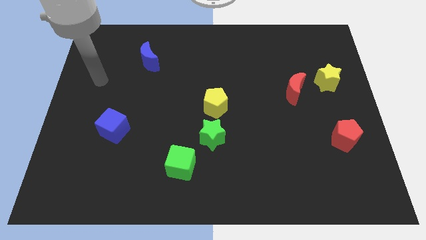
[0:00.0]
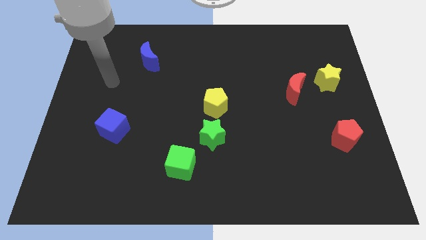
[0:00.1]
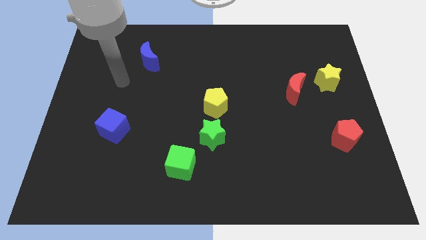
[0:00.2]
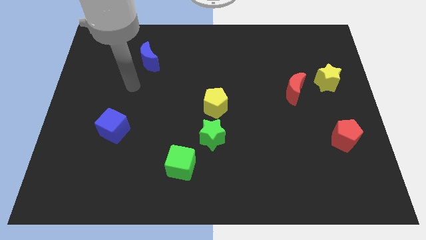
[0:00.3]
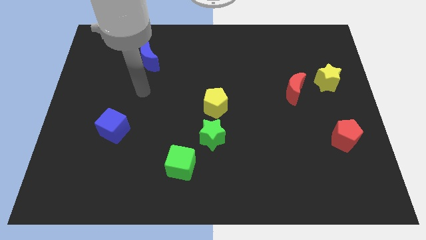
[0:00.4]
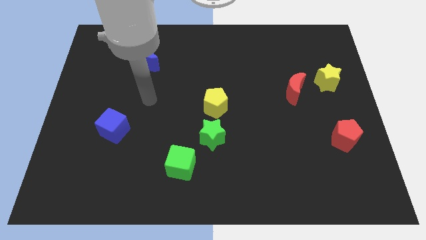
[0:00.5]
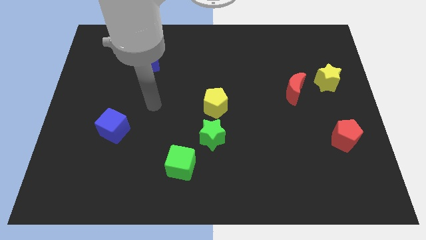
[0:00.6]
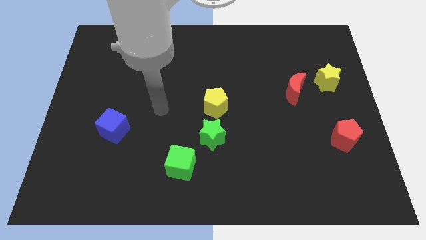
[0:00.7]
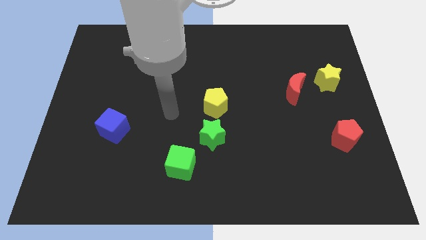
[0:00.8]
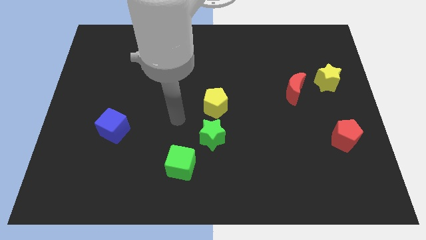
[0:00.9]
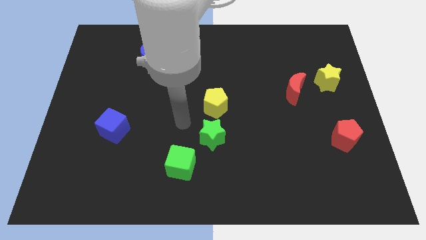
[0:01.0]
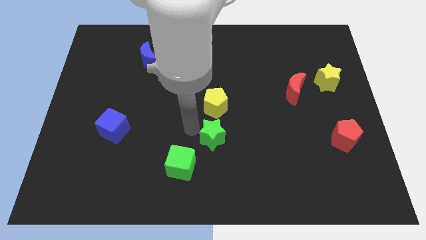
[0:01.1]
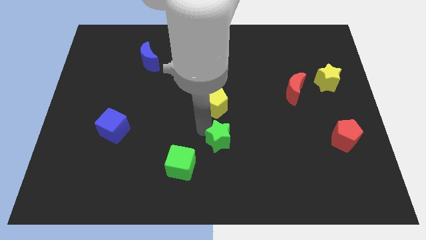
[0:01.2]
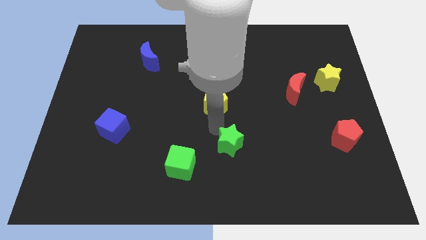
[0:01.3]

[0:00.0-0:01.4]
pull the yellow pentagon apart from the green star

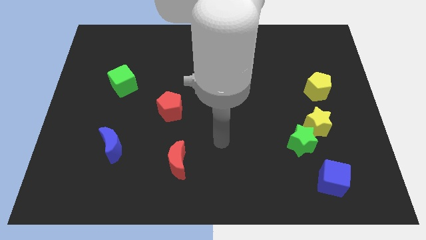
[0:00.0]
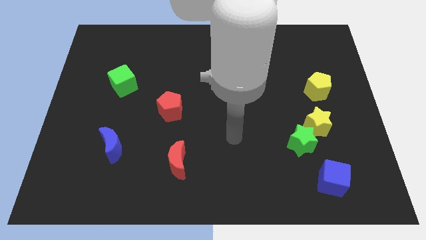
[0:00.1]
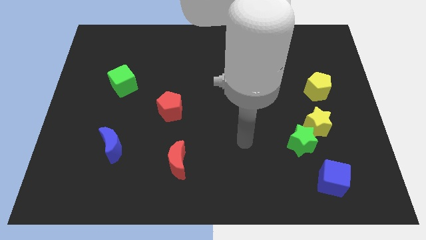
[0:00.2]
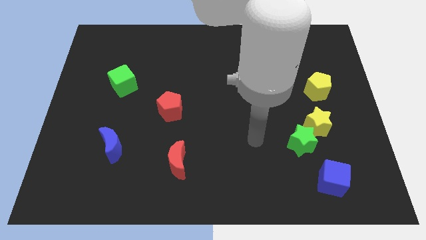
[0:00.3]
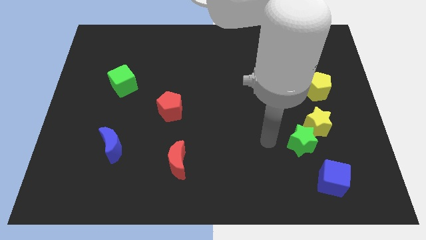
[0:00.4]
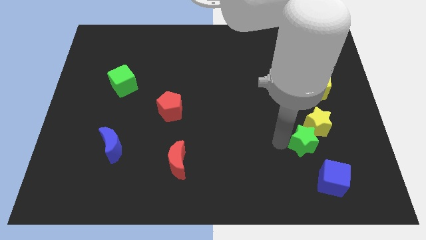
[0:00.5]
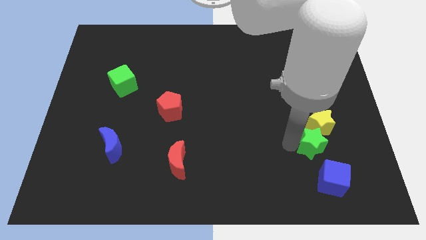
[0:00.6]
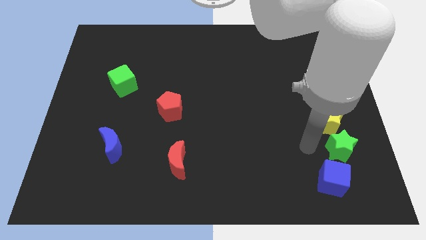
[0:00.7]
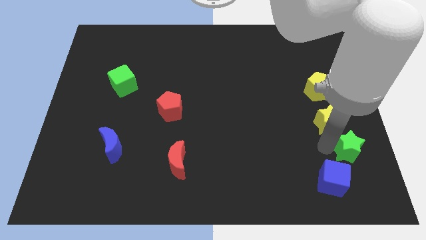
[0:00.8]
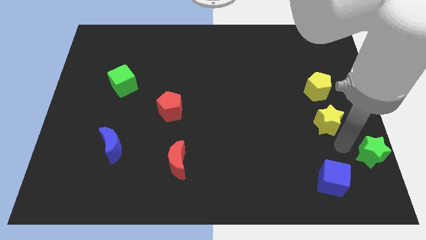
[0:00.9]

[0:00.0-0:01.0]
pull the yellow star apart from the green star

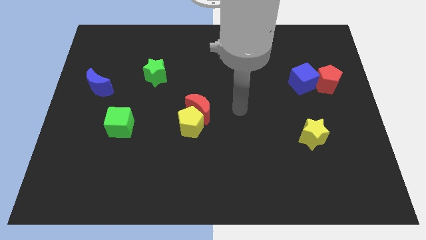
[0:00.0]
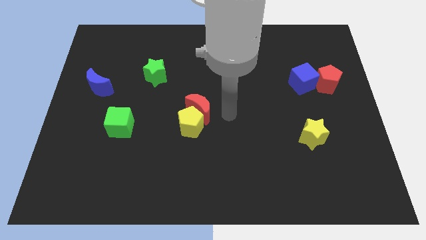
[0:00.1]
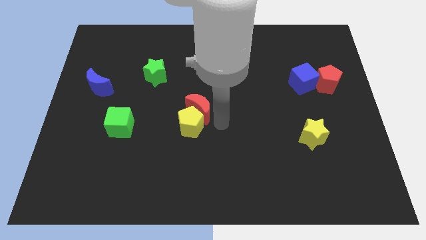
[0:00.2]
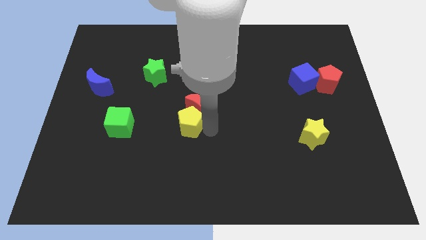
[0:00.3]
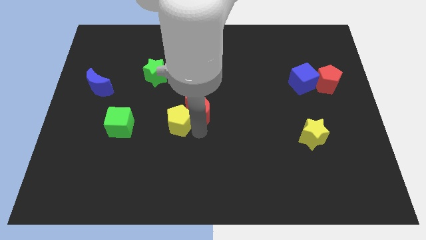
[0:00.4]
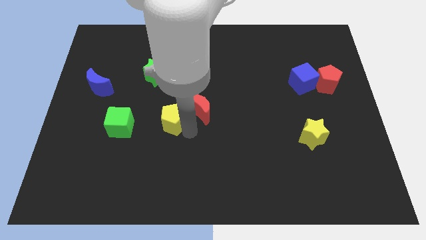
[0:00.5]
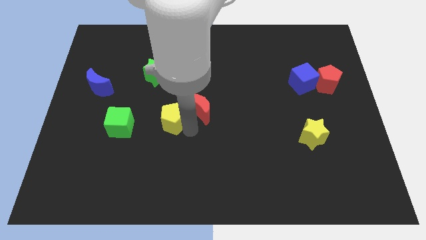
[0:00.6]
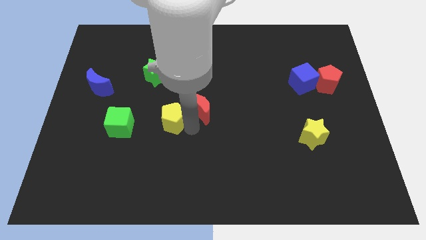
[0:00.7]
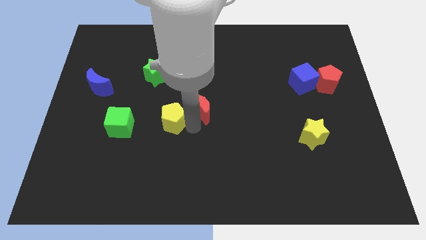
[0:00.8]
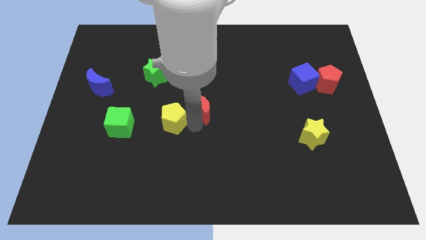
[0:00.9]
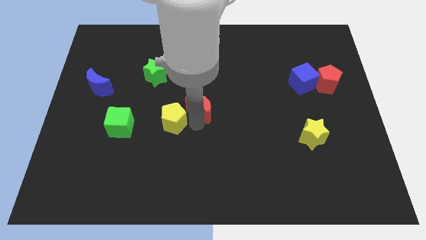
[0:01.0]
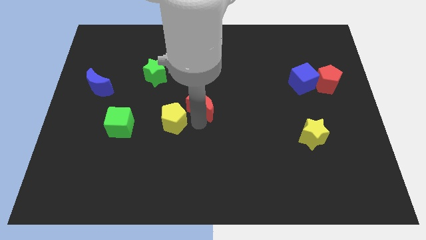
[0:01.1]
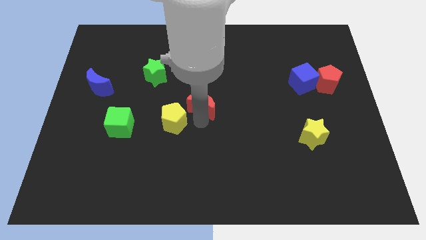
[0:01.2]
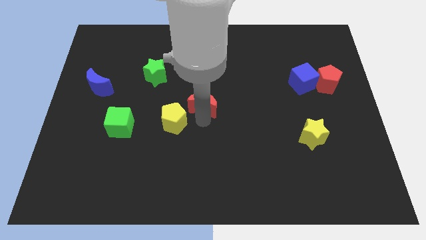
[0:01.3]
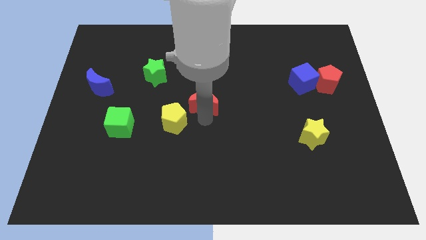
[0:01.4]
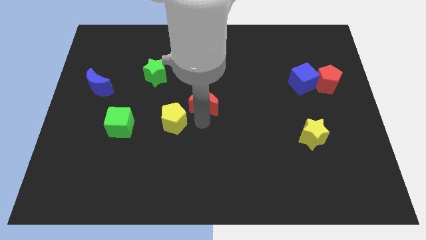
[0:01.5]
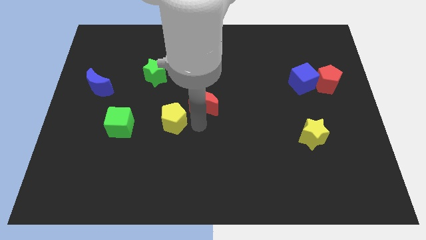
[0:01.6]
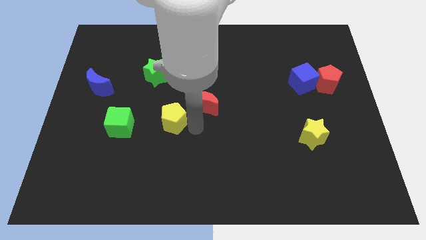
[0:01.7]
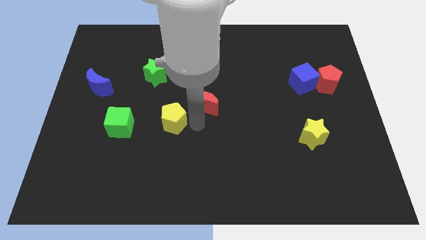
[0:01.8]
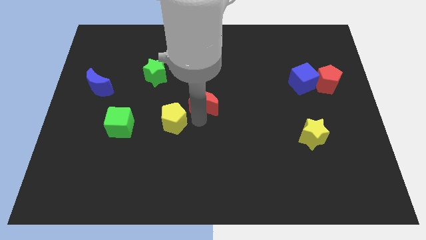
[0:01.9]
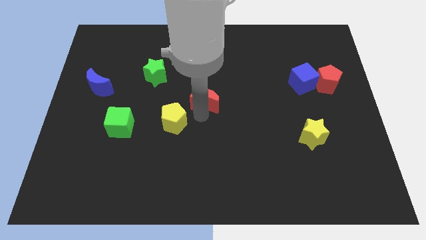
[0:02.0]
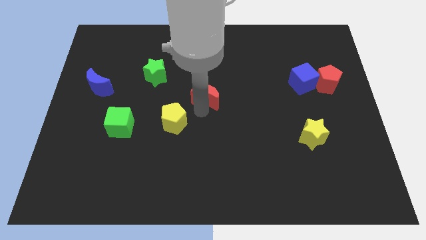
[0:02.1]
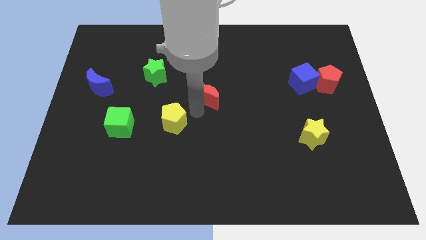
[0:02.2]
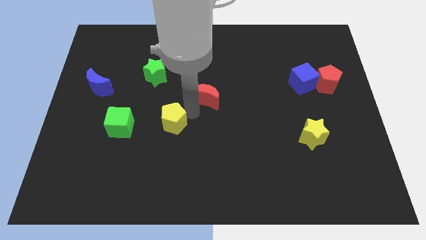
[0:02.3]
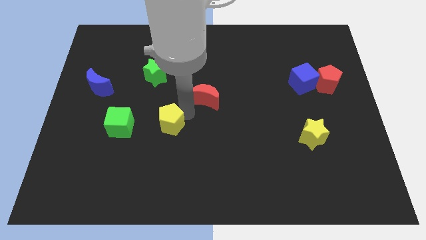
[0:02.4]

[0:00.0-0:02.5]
separate the red moon from the yellow pentagon

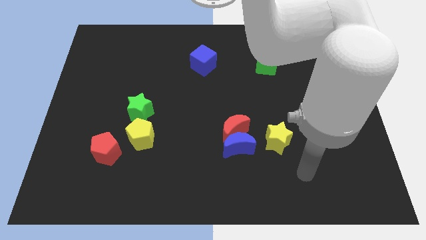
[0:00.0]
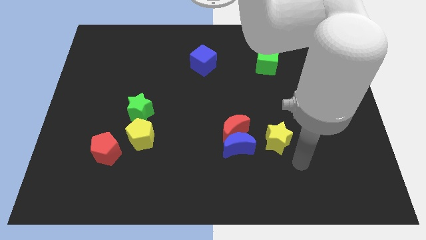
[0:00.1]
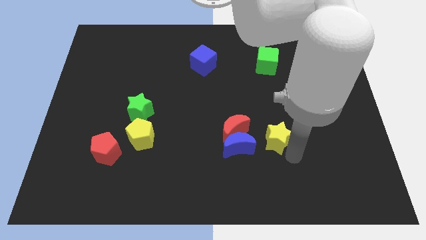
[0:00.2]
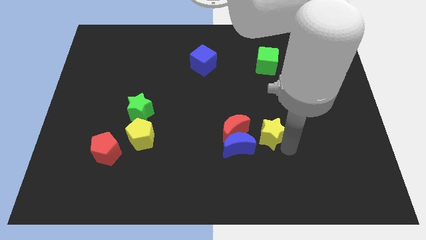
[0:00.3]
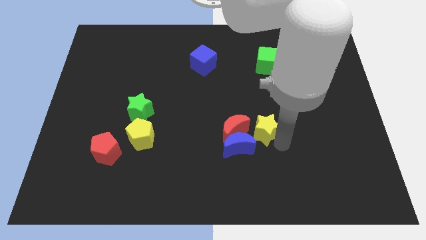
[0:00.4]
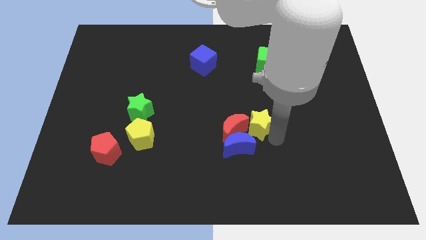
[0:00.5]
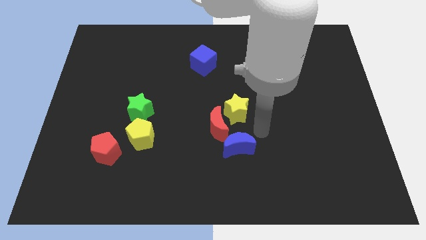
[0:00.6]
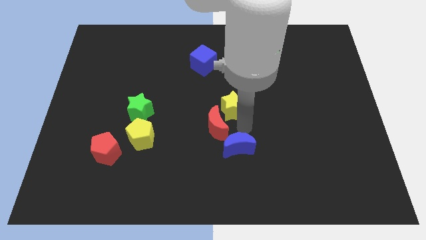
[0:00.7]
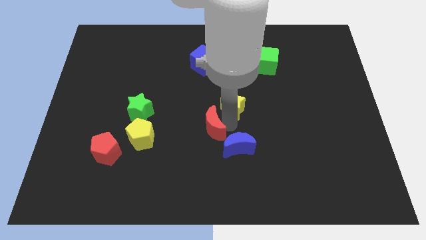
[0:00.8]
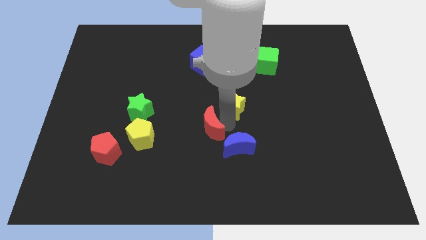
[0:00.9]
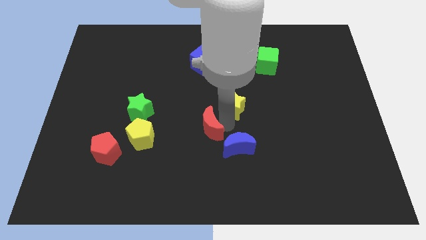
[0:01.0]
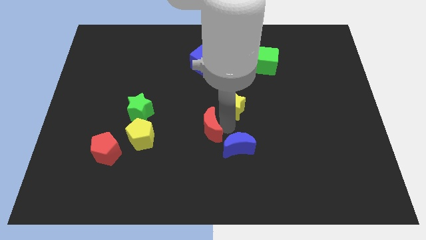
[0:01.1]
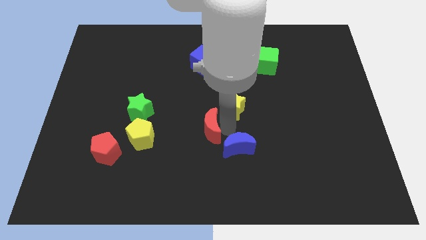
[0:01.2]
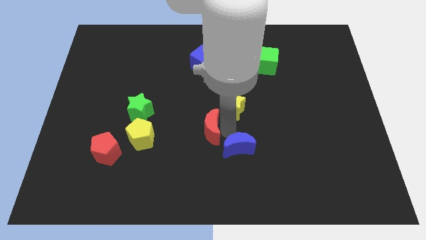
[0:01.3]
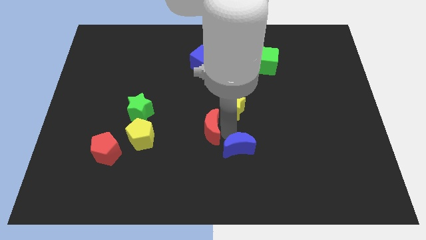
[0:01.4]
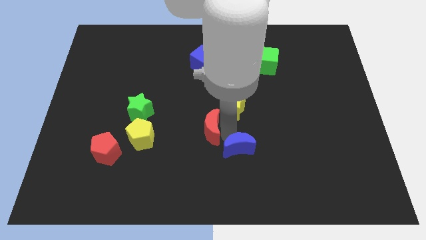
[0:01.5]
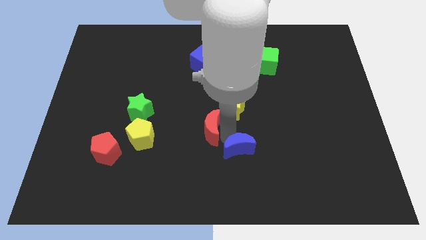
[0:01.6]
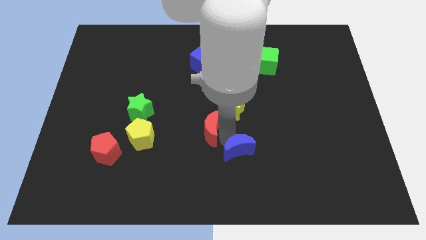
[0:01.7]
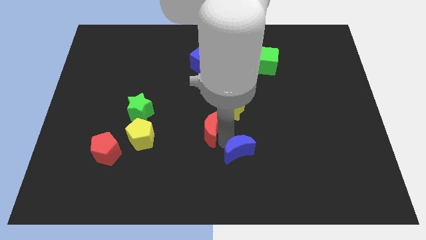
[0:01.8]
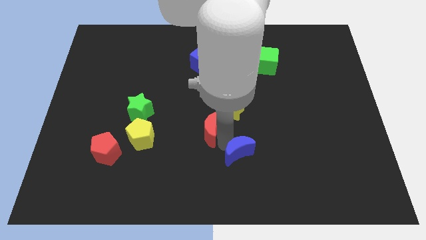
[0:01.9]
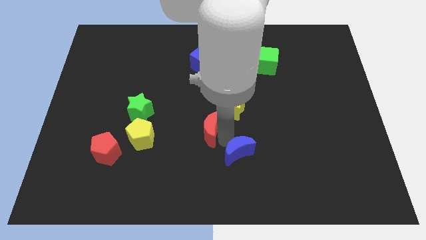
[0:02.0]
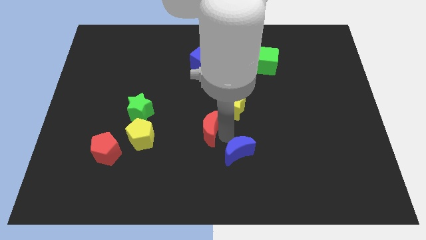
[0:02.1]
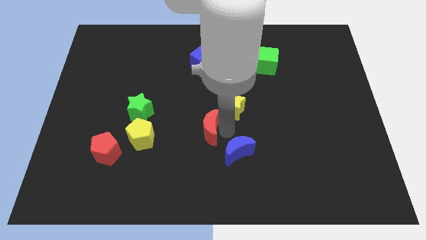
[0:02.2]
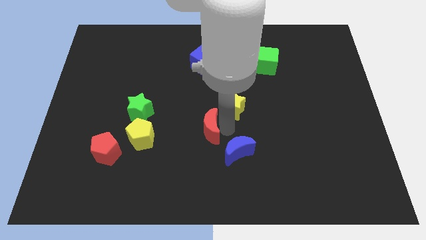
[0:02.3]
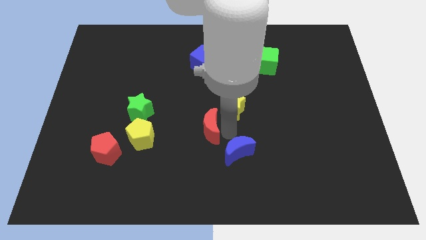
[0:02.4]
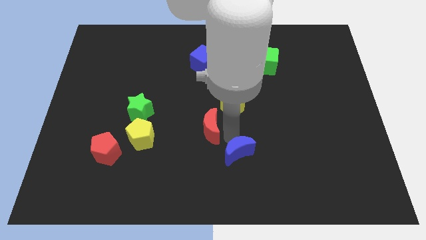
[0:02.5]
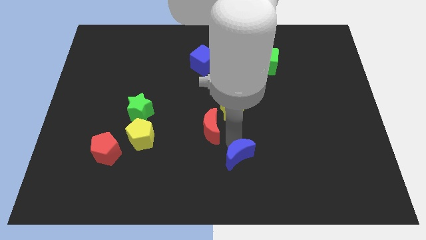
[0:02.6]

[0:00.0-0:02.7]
separate the blue moon from the red moon and yellow star

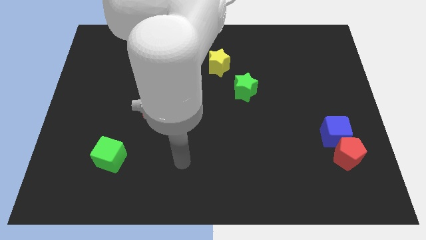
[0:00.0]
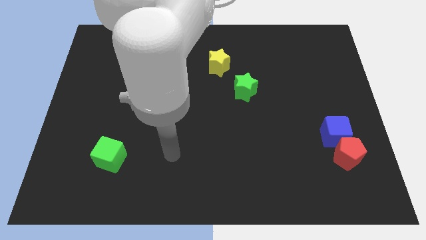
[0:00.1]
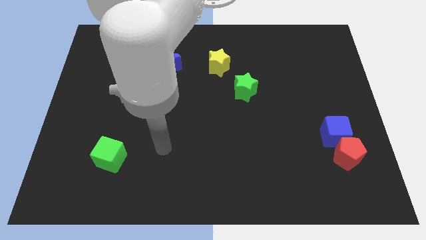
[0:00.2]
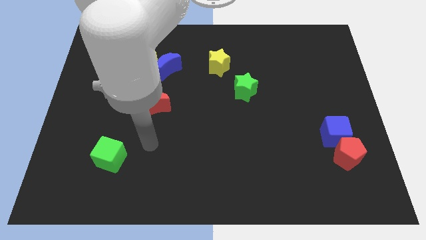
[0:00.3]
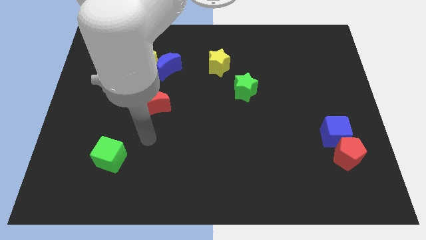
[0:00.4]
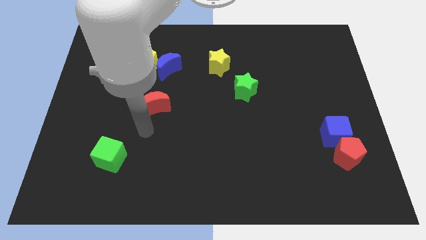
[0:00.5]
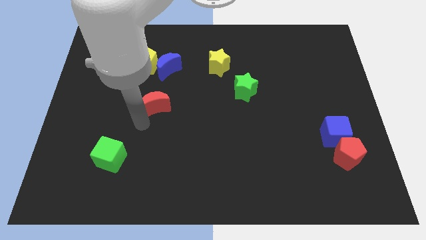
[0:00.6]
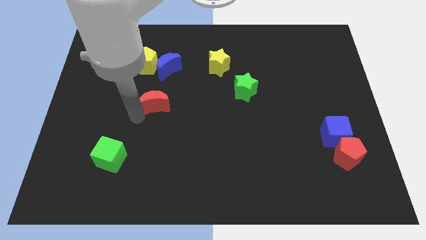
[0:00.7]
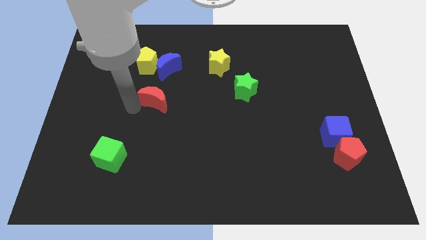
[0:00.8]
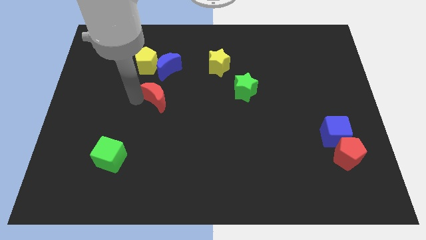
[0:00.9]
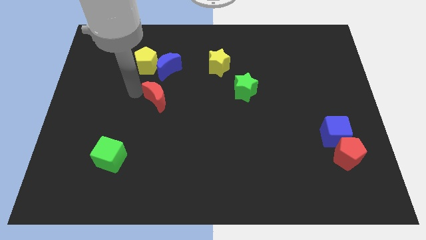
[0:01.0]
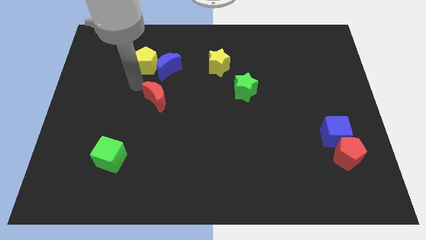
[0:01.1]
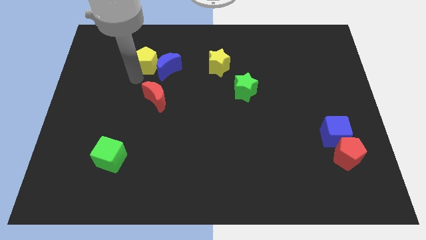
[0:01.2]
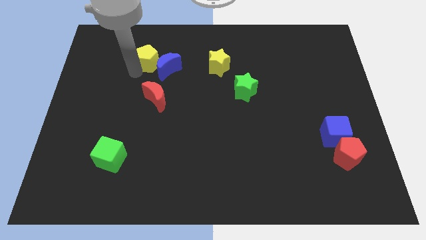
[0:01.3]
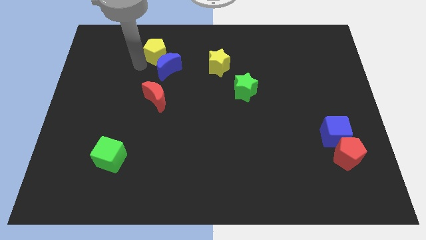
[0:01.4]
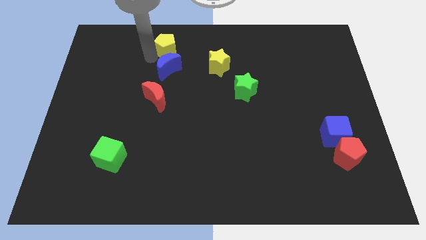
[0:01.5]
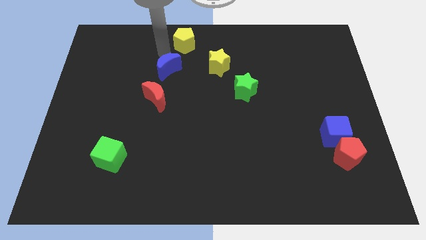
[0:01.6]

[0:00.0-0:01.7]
pull the blue moon apart from the yellow pentagon
